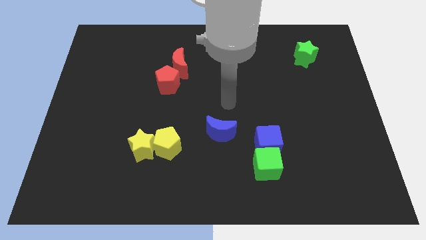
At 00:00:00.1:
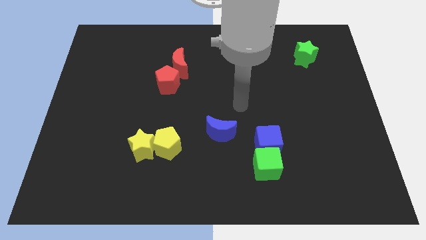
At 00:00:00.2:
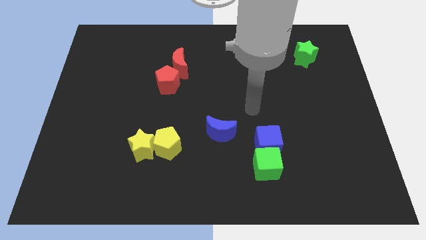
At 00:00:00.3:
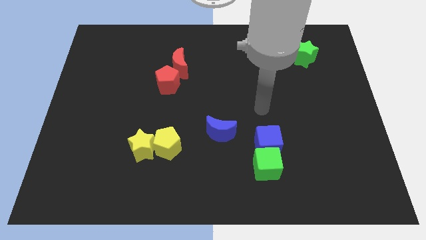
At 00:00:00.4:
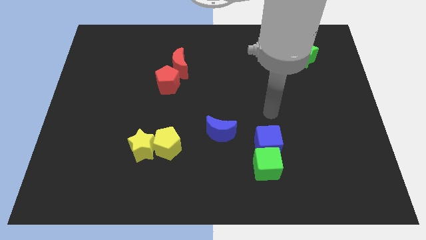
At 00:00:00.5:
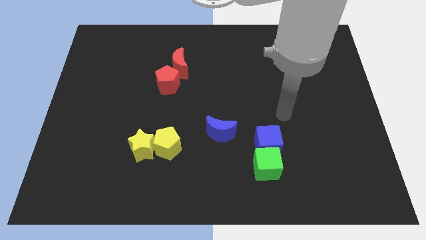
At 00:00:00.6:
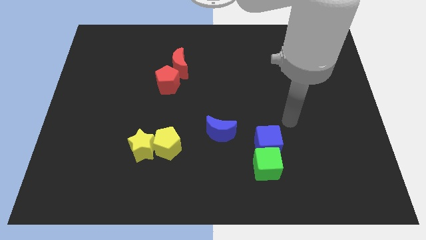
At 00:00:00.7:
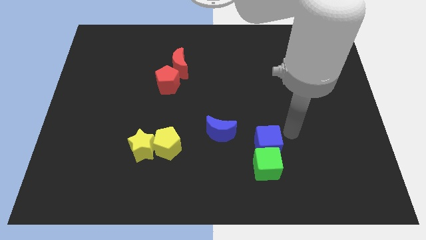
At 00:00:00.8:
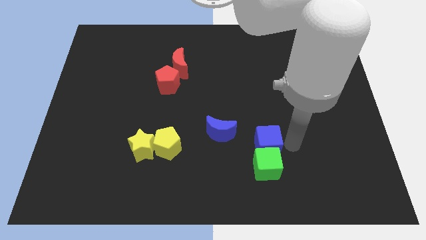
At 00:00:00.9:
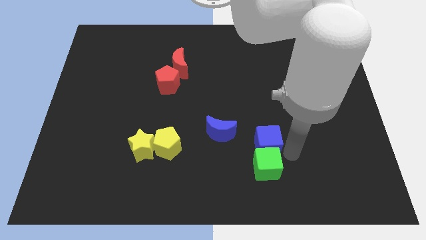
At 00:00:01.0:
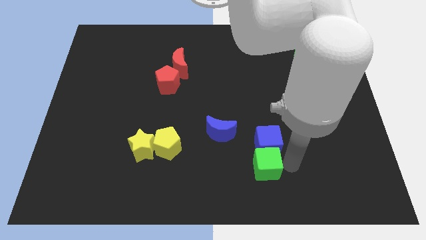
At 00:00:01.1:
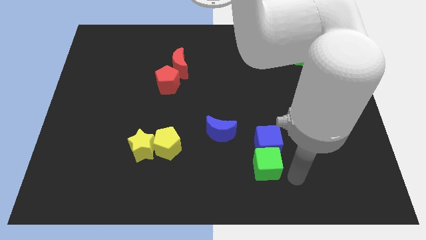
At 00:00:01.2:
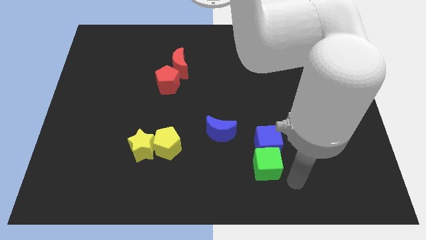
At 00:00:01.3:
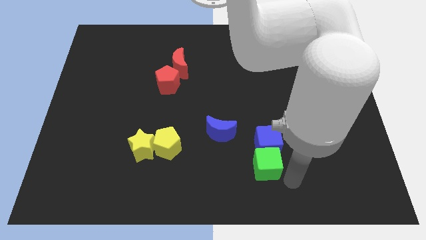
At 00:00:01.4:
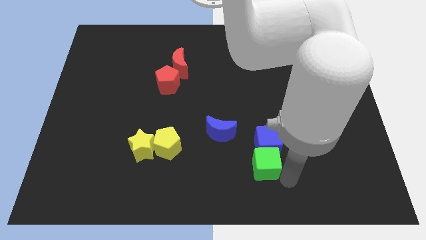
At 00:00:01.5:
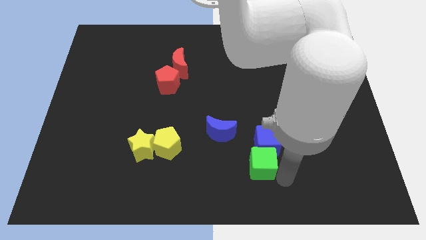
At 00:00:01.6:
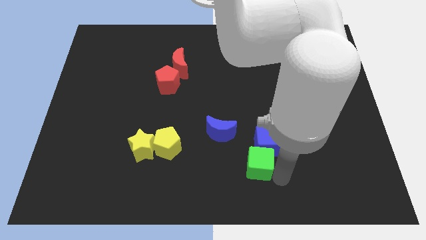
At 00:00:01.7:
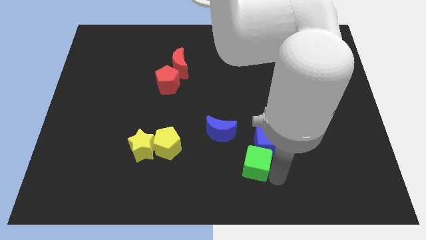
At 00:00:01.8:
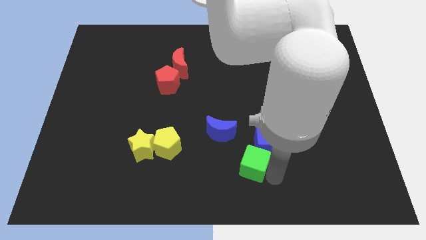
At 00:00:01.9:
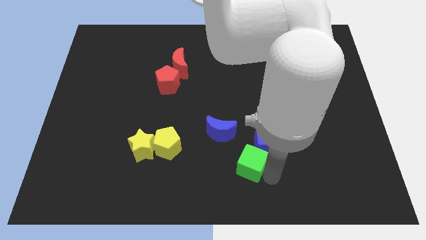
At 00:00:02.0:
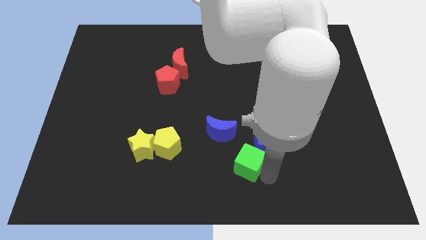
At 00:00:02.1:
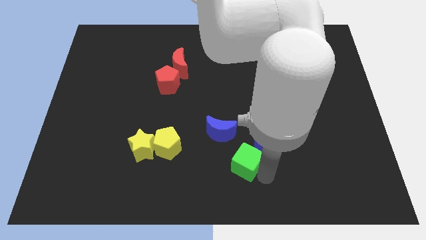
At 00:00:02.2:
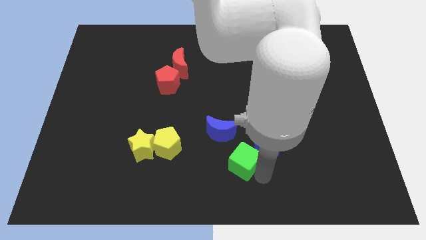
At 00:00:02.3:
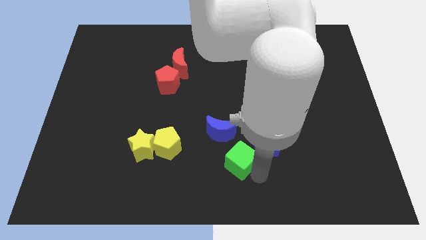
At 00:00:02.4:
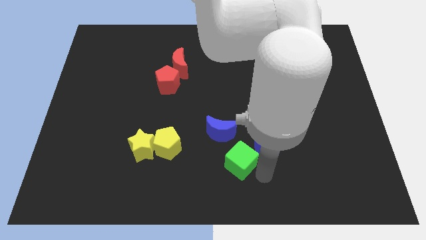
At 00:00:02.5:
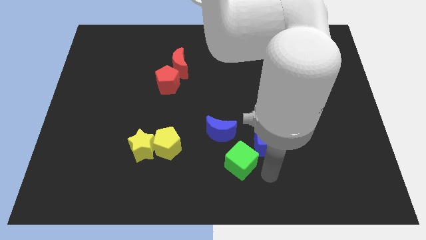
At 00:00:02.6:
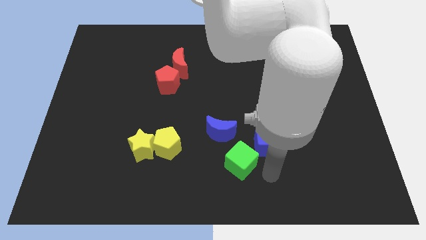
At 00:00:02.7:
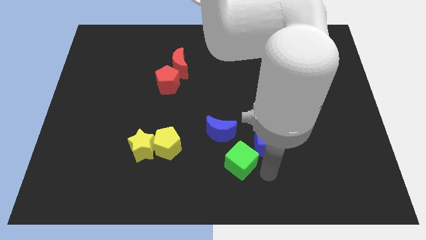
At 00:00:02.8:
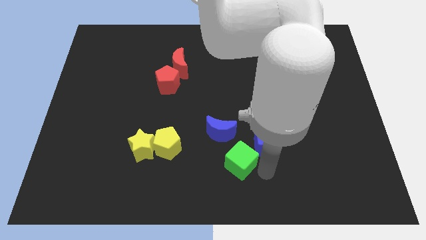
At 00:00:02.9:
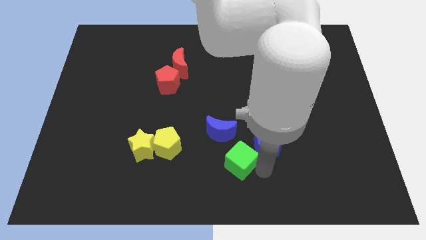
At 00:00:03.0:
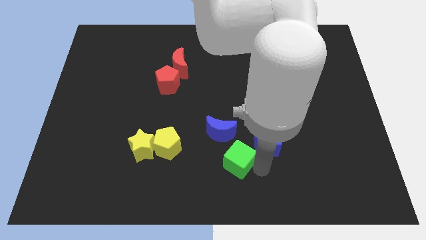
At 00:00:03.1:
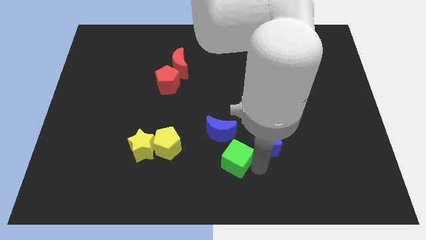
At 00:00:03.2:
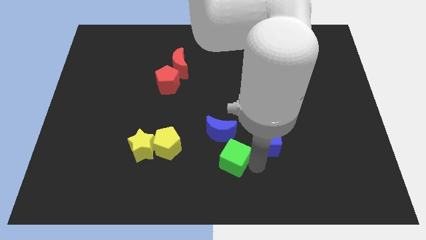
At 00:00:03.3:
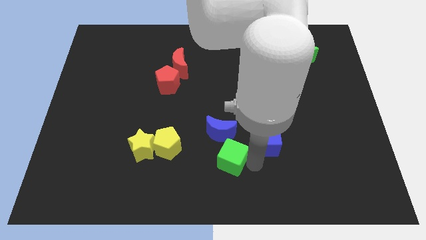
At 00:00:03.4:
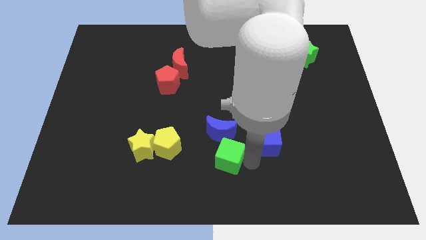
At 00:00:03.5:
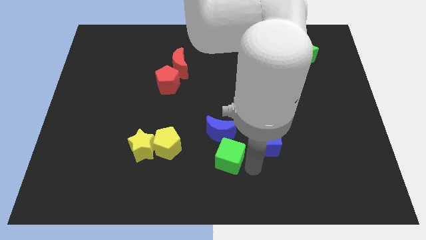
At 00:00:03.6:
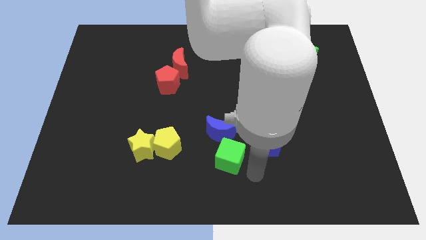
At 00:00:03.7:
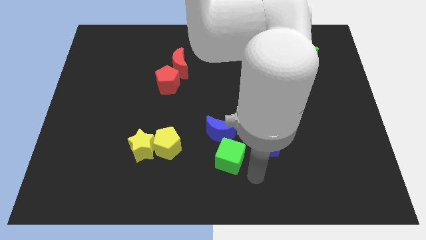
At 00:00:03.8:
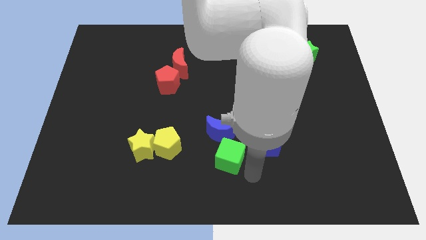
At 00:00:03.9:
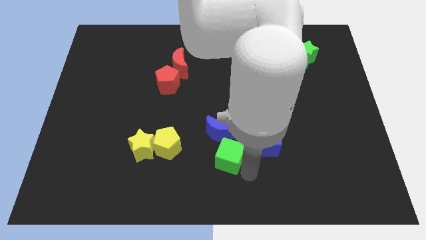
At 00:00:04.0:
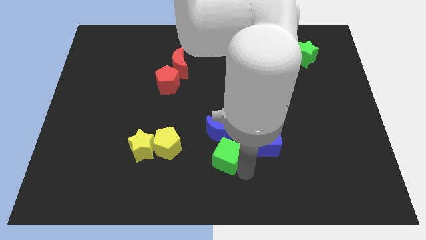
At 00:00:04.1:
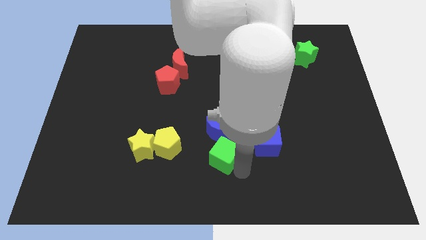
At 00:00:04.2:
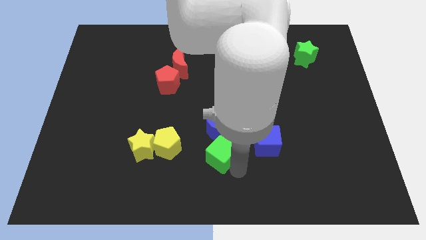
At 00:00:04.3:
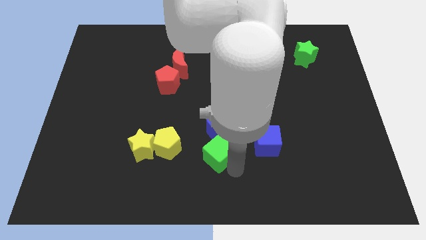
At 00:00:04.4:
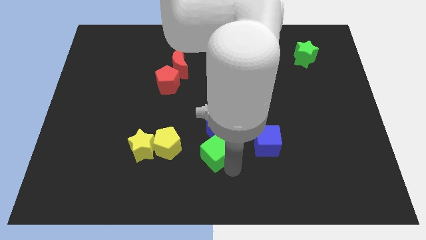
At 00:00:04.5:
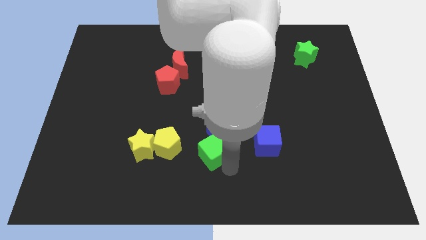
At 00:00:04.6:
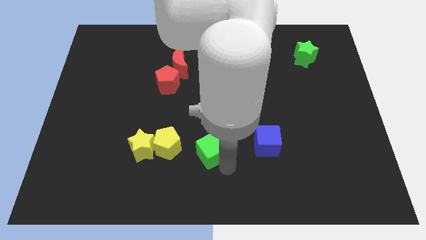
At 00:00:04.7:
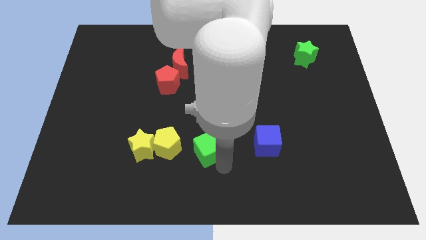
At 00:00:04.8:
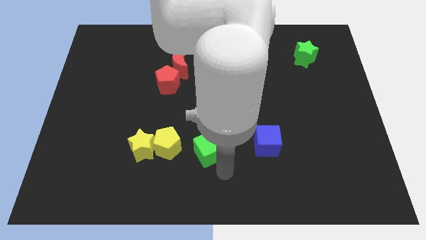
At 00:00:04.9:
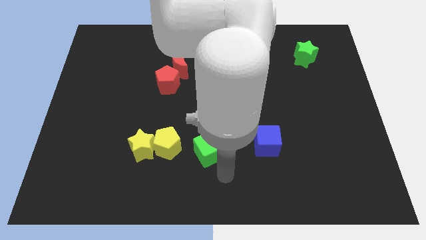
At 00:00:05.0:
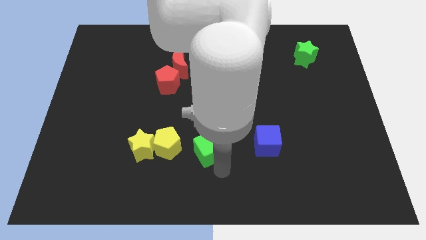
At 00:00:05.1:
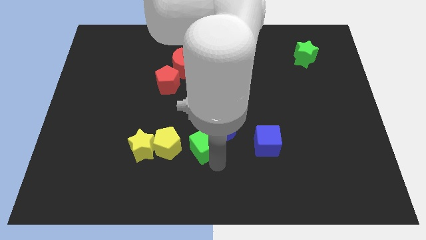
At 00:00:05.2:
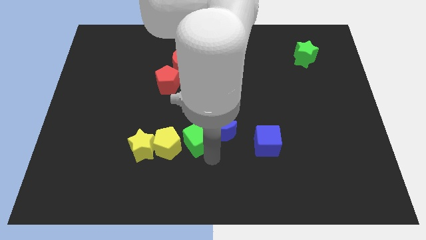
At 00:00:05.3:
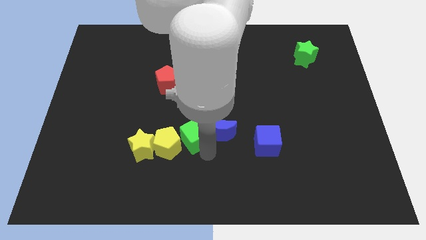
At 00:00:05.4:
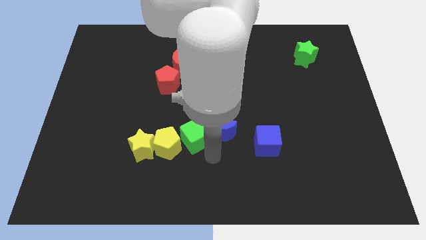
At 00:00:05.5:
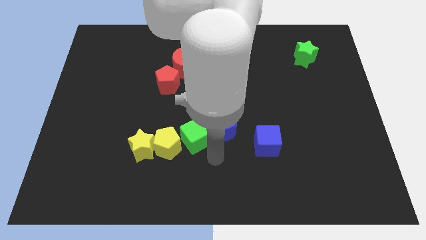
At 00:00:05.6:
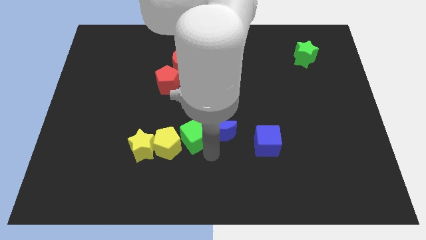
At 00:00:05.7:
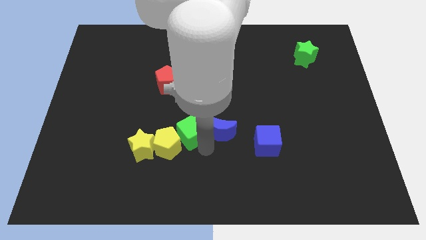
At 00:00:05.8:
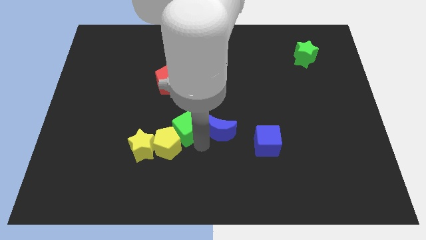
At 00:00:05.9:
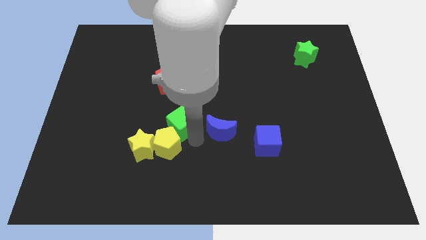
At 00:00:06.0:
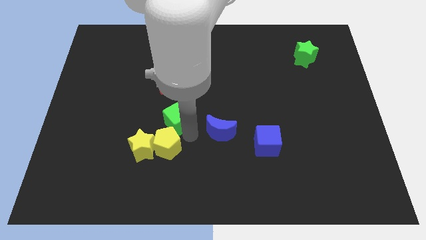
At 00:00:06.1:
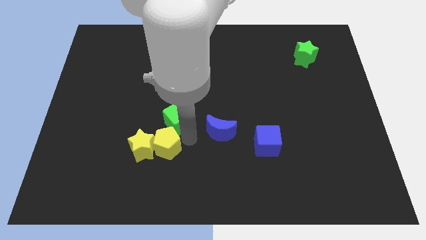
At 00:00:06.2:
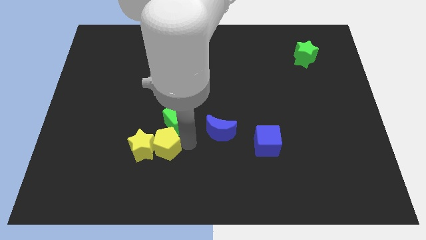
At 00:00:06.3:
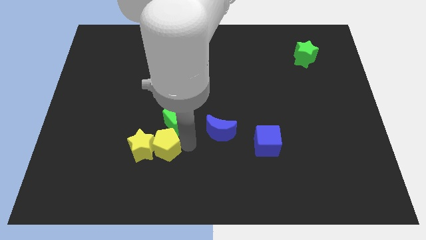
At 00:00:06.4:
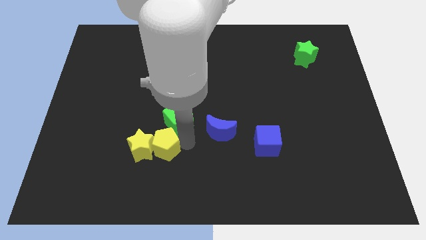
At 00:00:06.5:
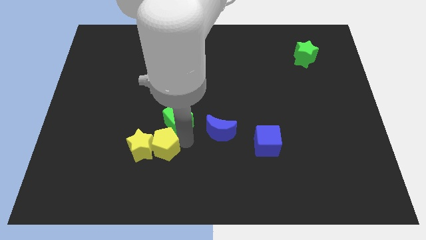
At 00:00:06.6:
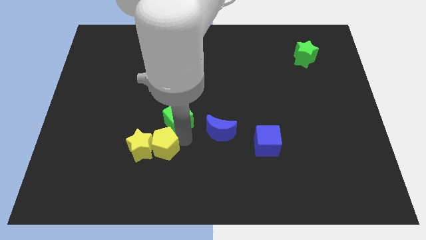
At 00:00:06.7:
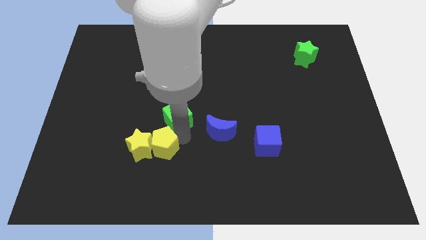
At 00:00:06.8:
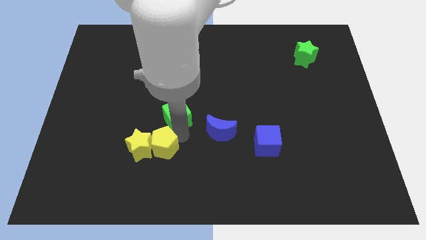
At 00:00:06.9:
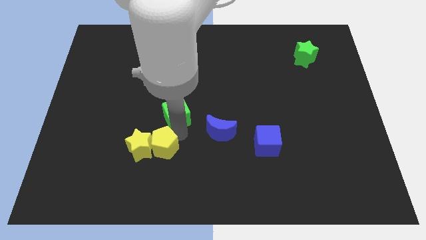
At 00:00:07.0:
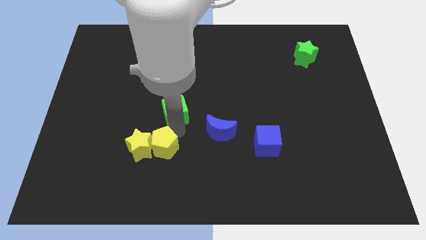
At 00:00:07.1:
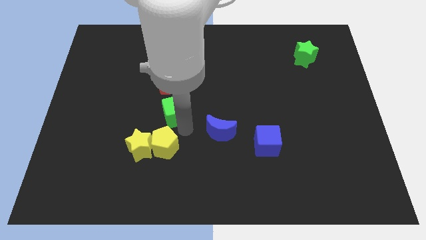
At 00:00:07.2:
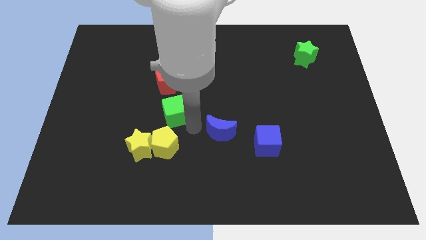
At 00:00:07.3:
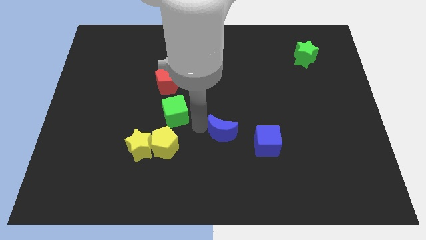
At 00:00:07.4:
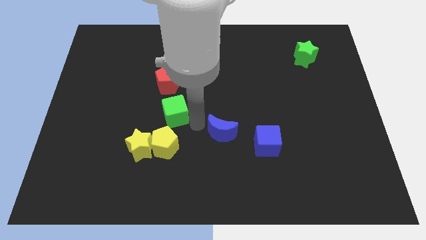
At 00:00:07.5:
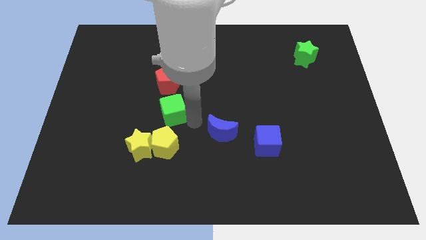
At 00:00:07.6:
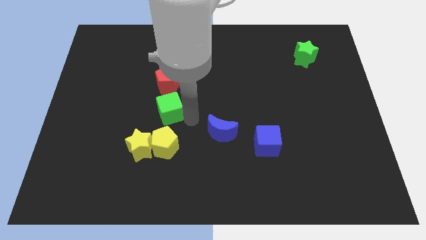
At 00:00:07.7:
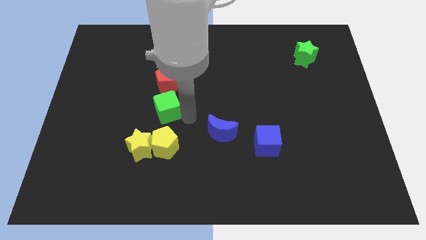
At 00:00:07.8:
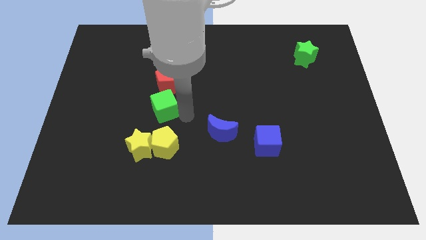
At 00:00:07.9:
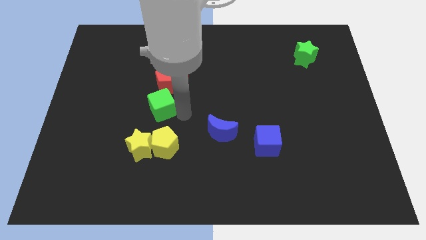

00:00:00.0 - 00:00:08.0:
put the green cube to the bottom left side of the red pentagon
